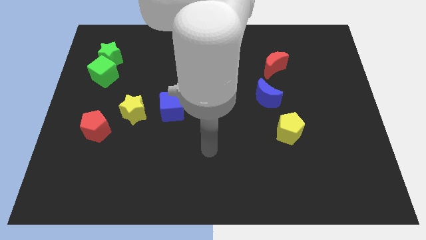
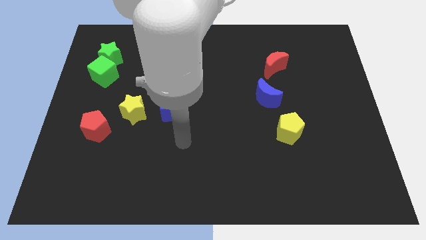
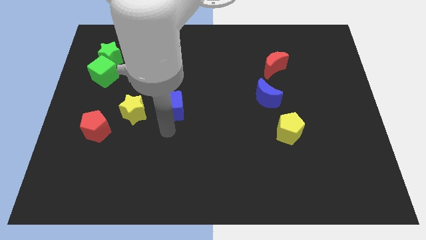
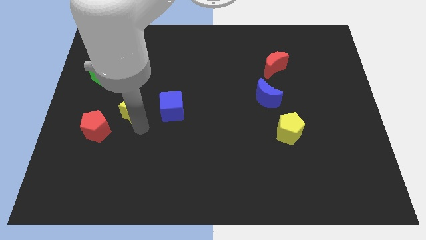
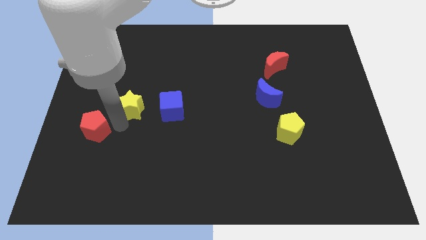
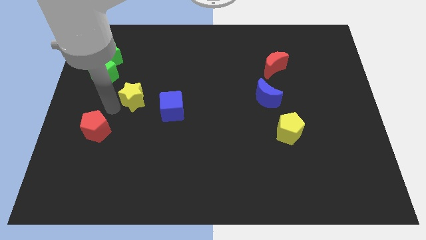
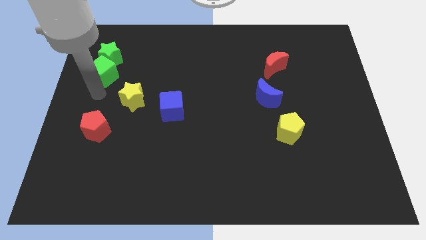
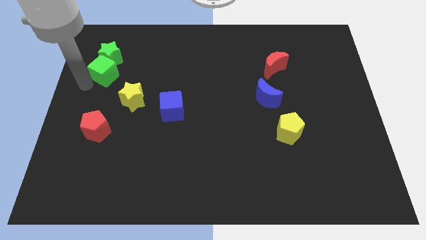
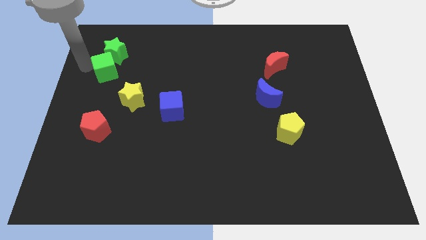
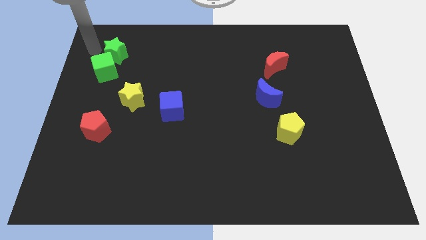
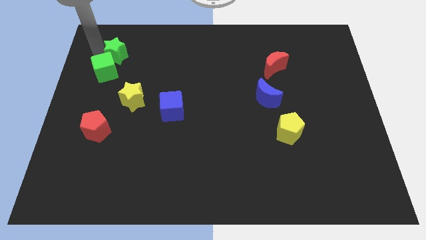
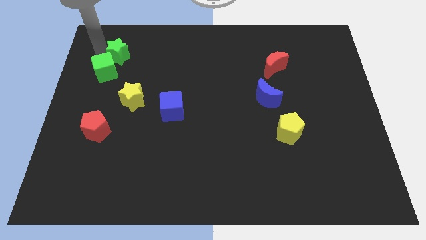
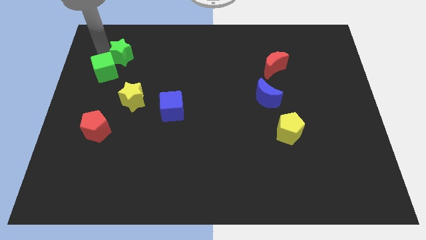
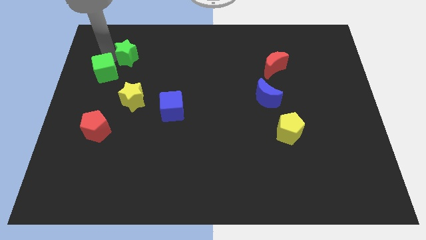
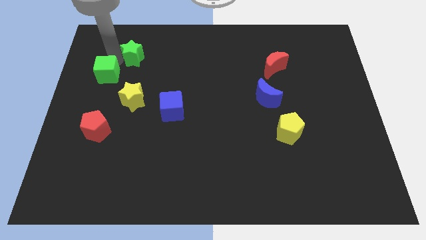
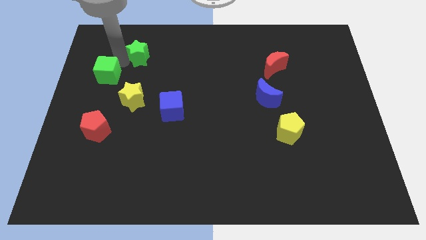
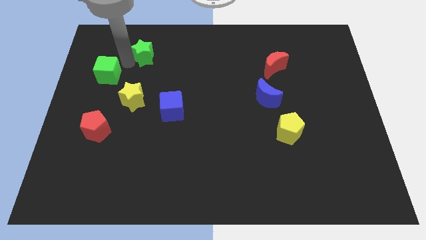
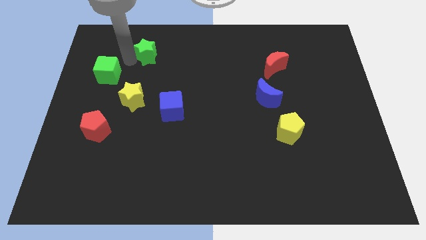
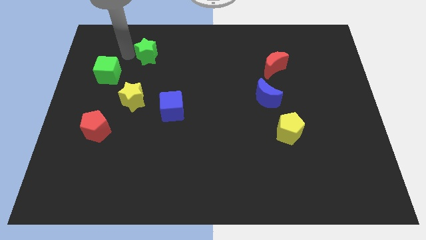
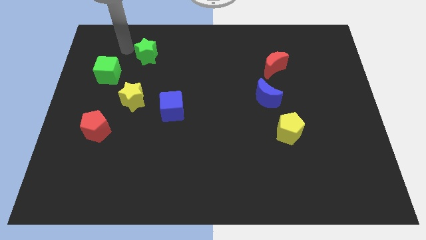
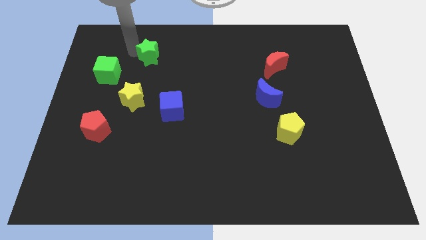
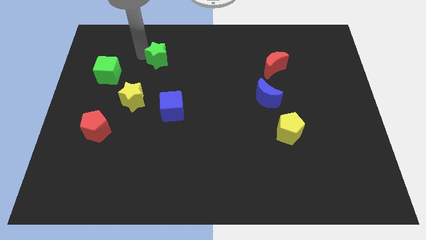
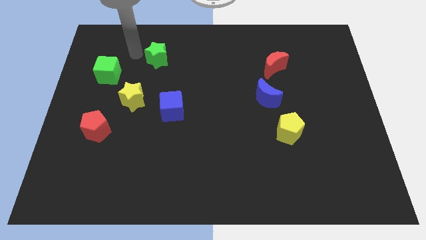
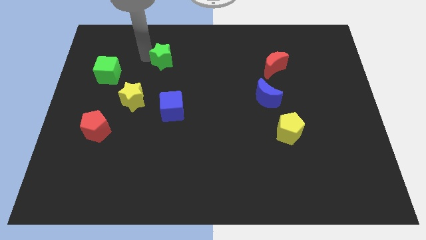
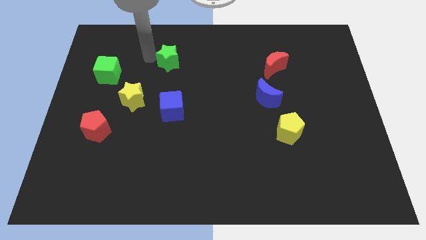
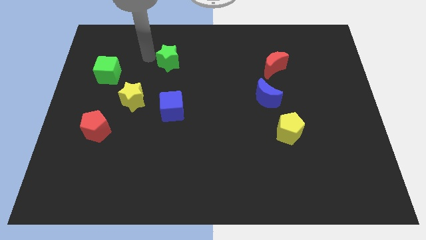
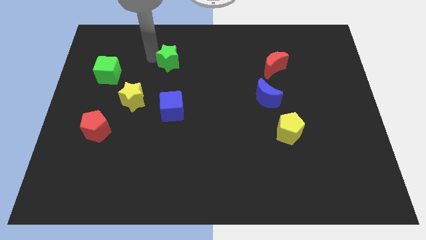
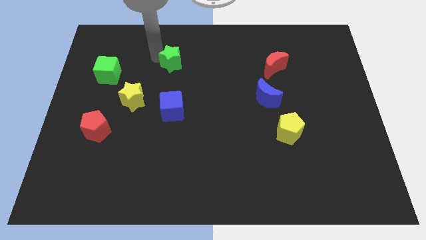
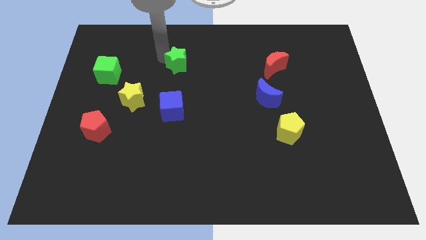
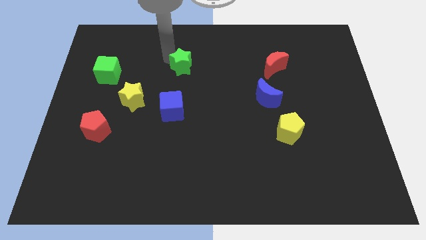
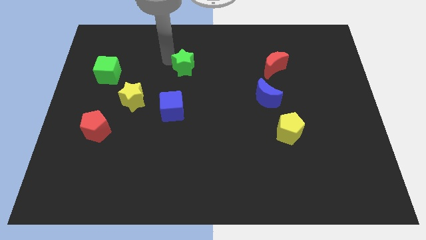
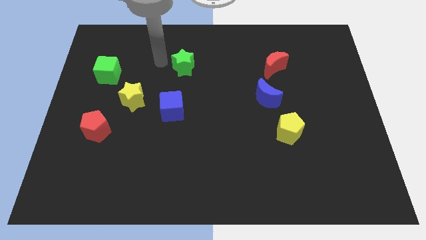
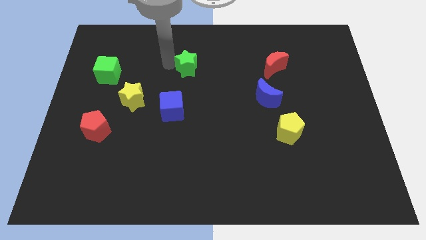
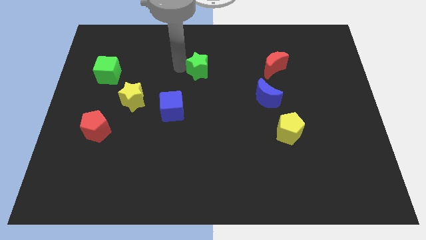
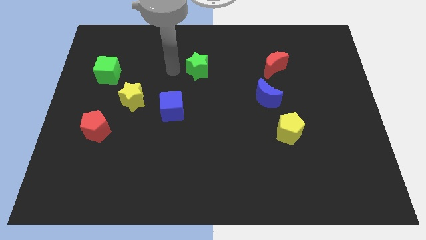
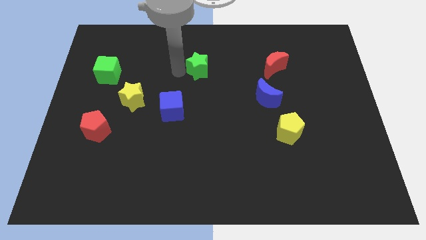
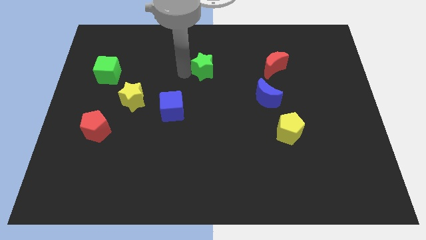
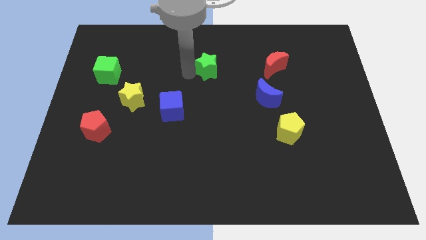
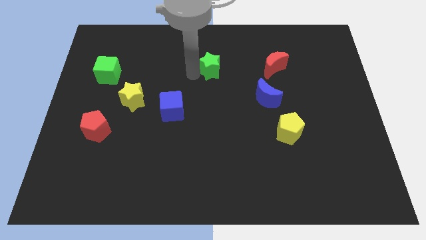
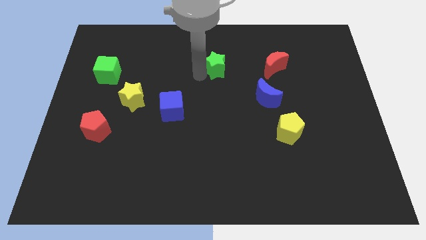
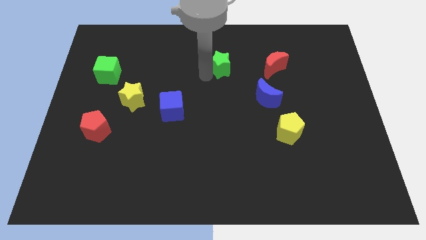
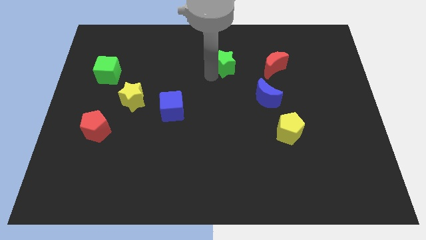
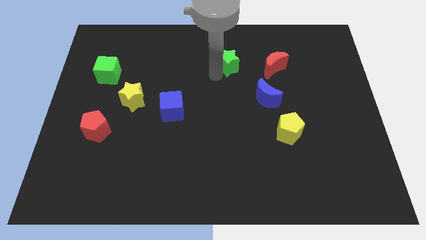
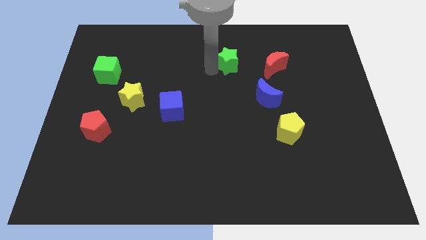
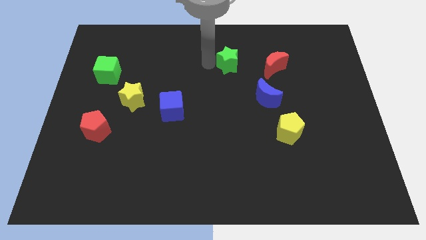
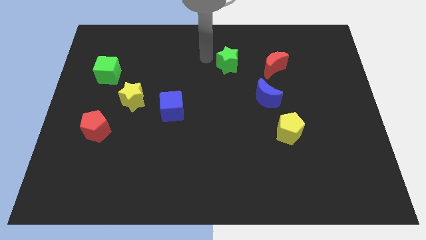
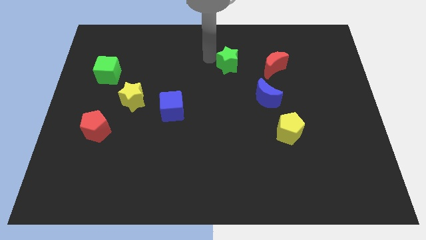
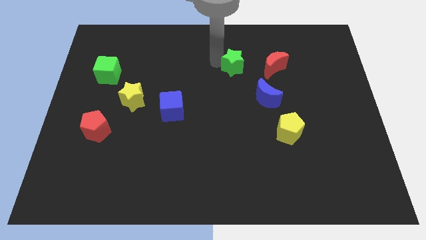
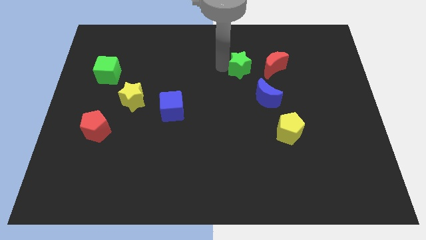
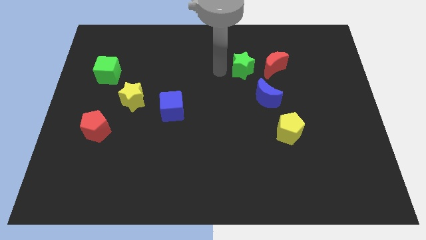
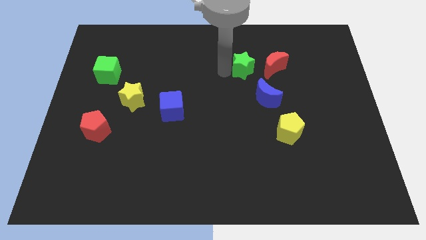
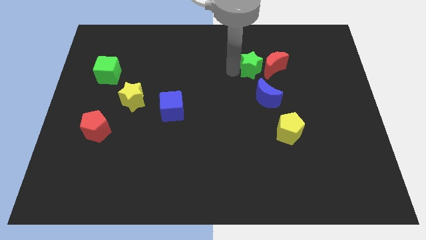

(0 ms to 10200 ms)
put the green star next to the red moon

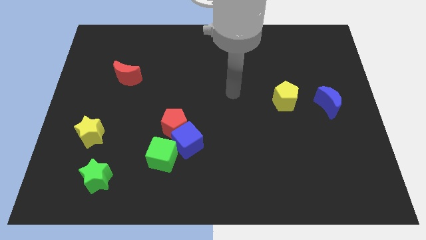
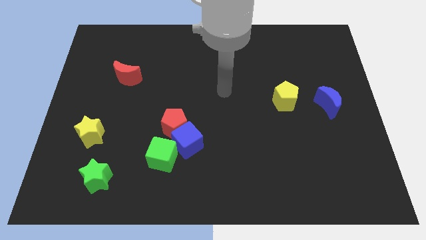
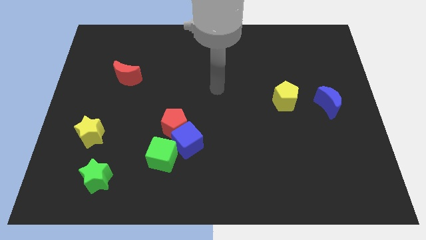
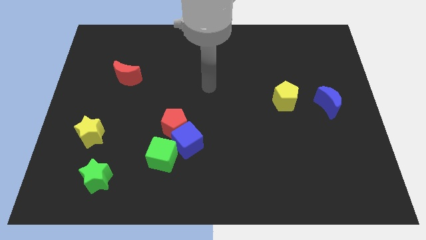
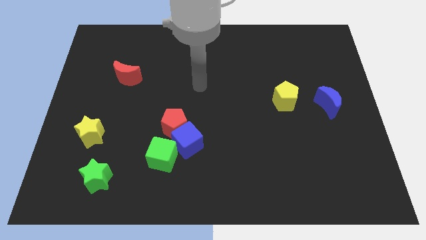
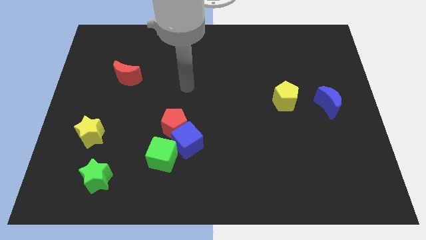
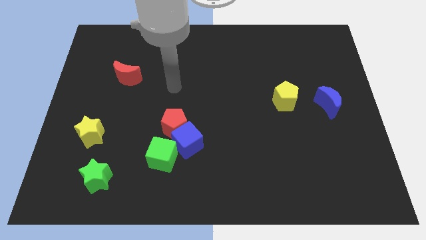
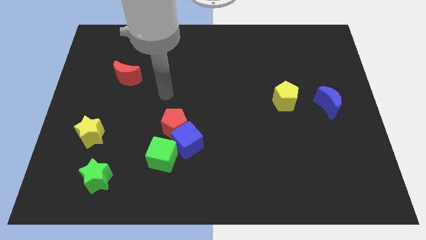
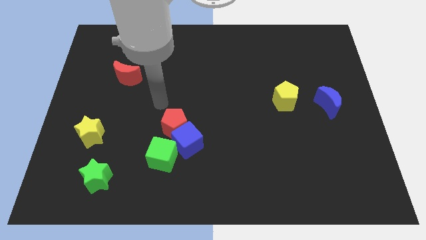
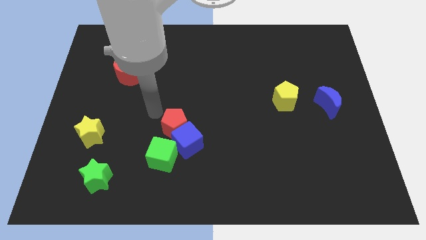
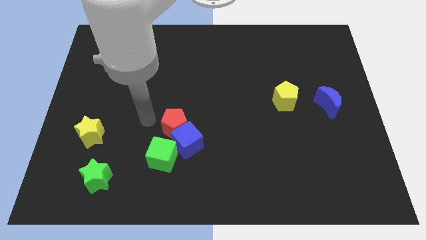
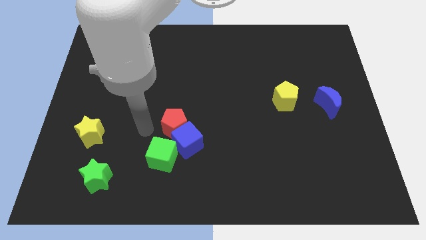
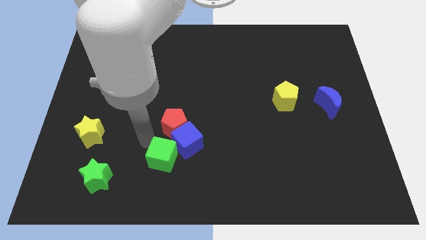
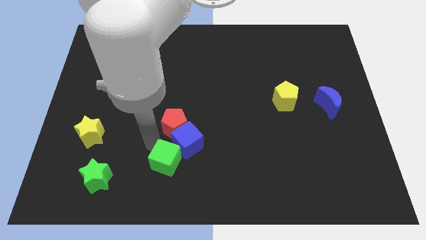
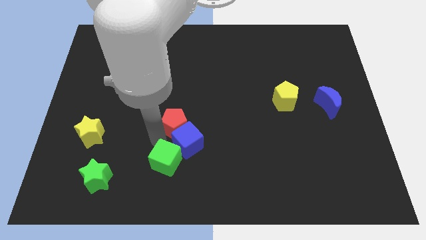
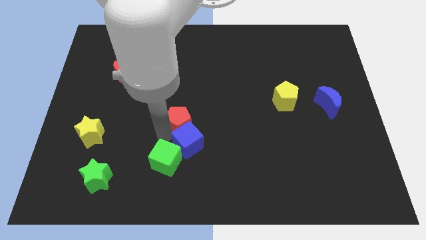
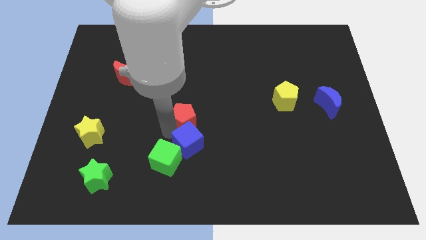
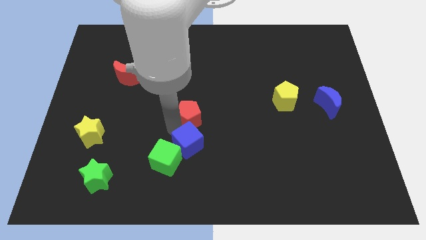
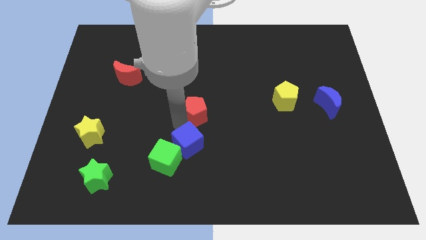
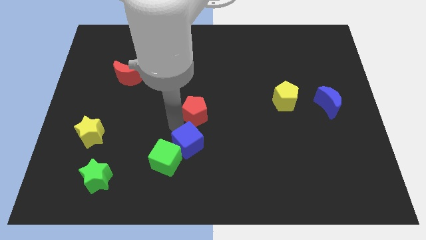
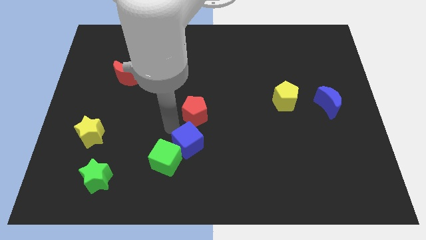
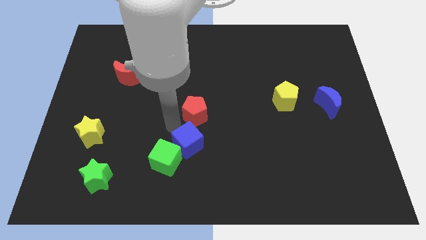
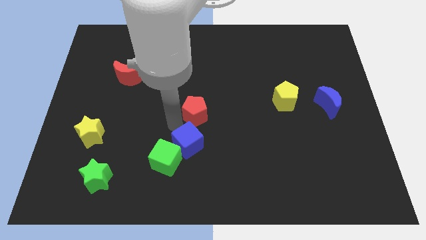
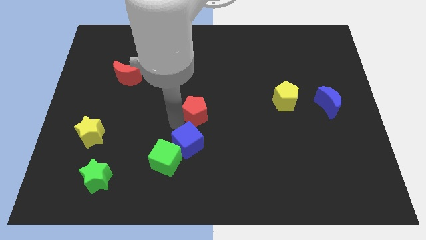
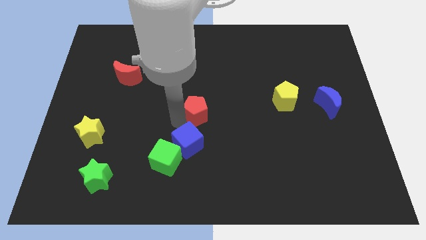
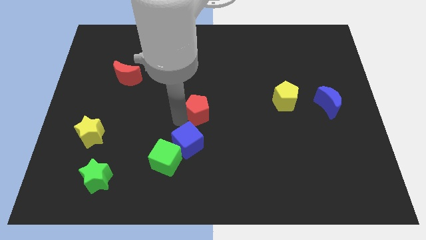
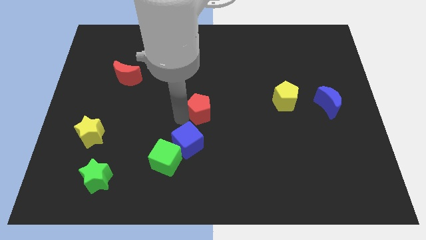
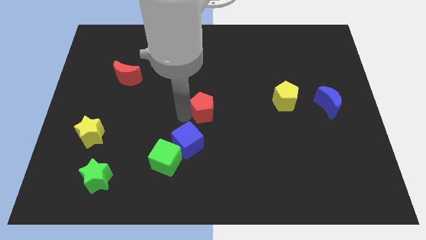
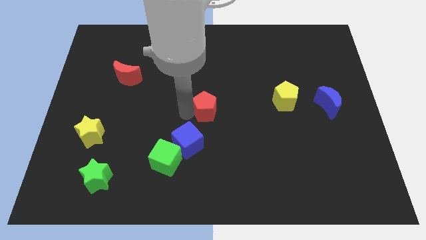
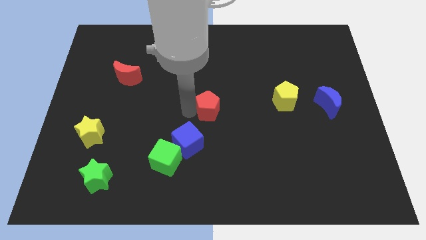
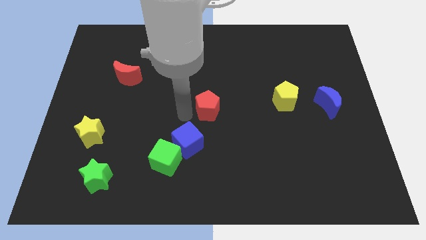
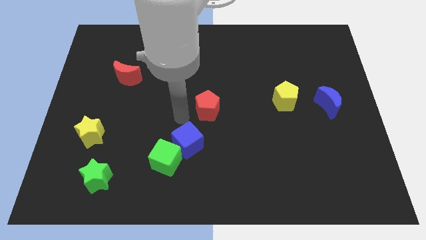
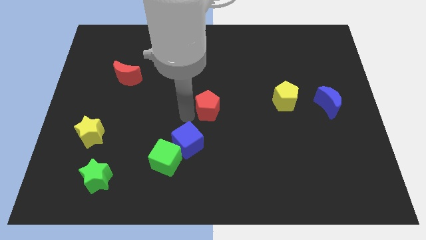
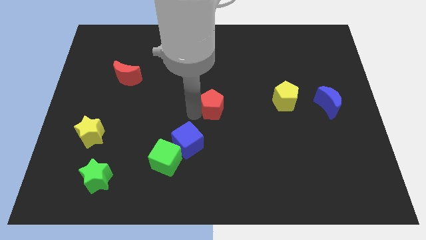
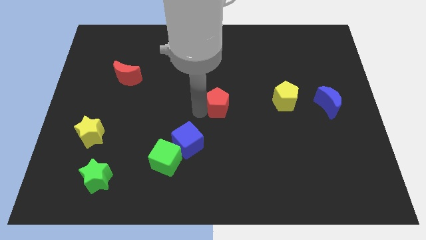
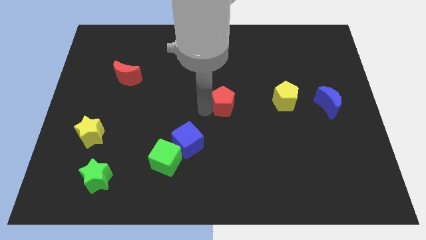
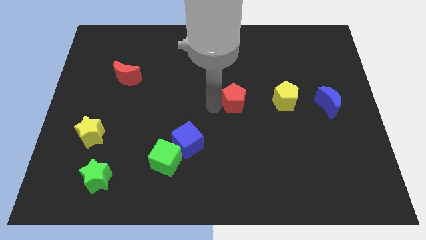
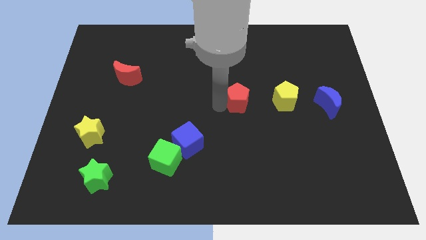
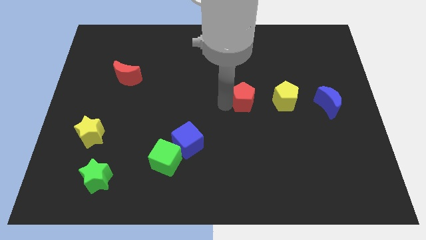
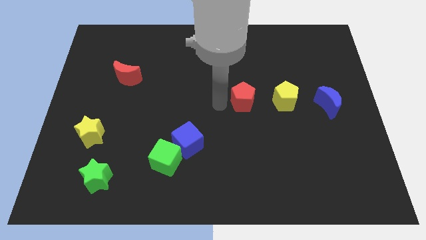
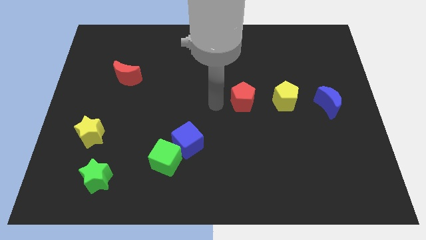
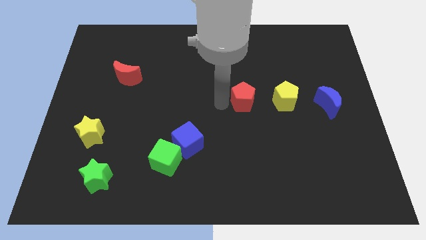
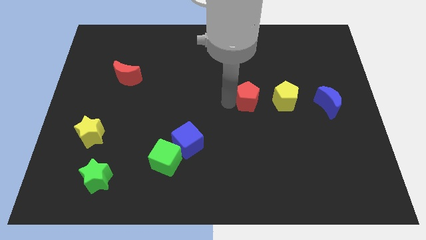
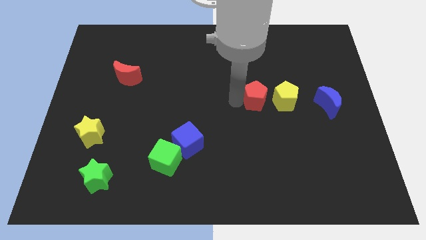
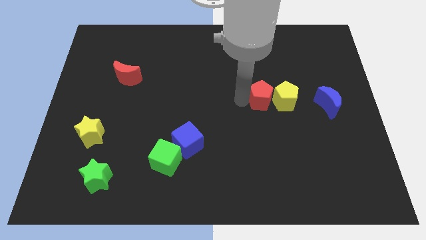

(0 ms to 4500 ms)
slide the red pentagon next to the yellow pentagon
